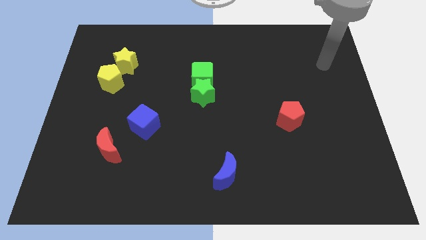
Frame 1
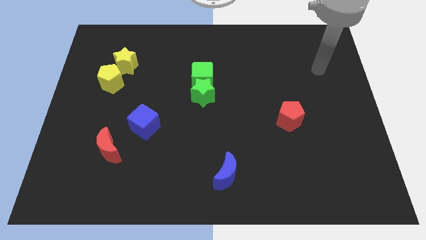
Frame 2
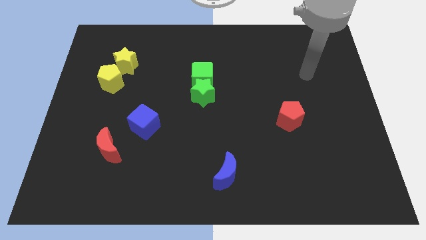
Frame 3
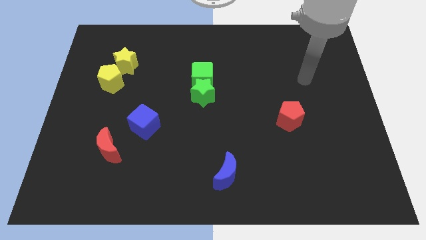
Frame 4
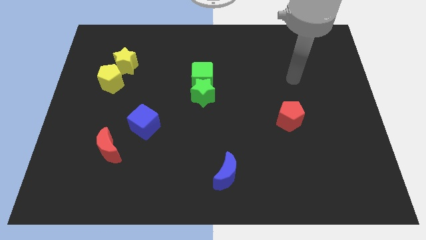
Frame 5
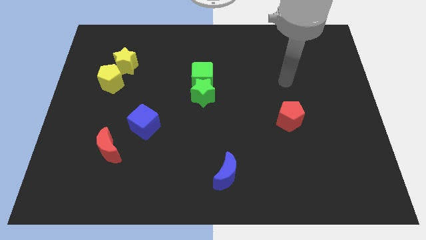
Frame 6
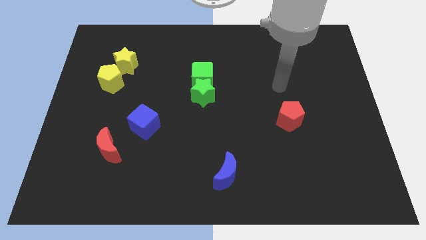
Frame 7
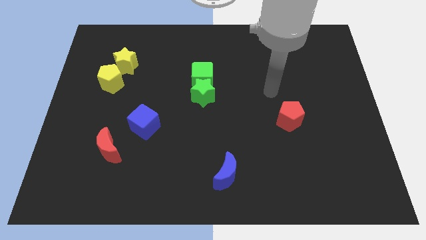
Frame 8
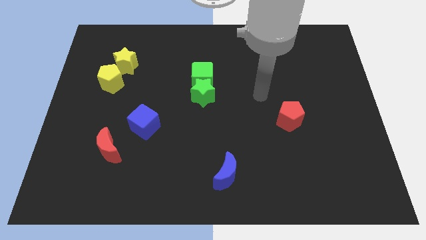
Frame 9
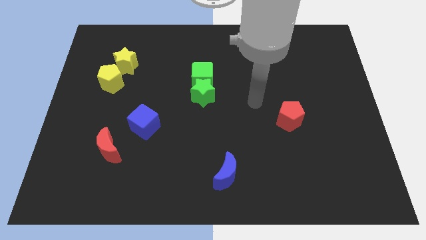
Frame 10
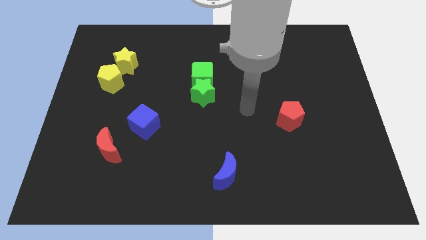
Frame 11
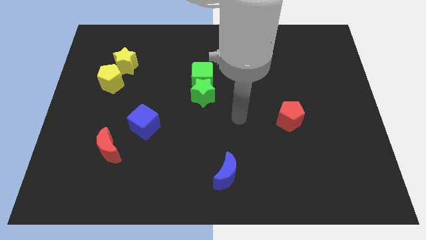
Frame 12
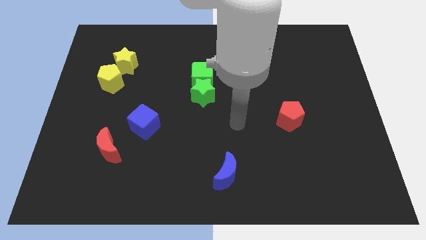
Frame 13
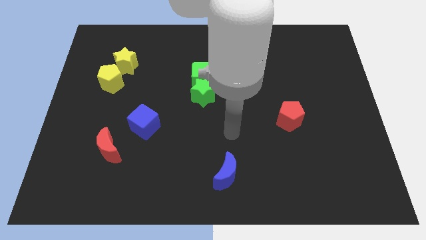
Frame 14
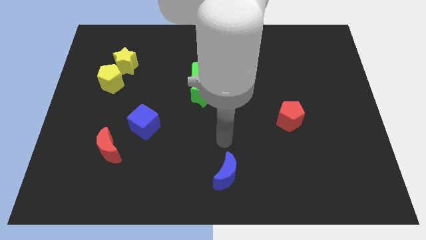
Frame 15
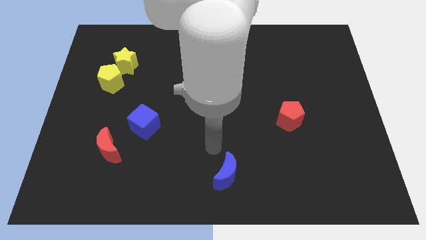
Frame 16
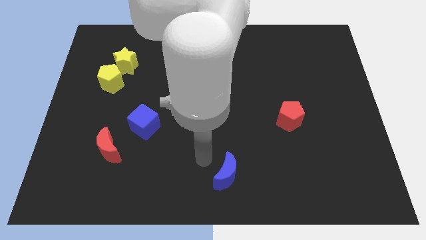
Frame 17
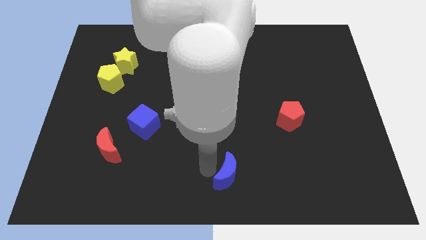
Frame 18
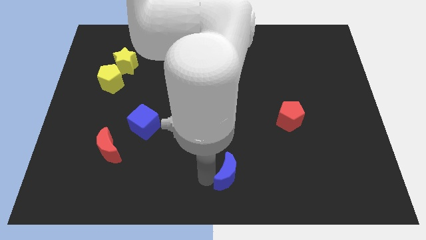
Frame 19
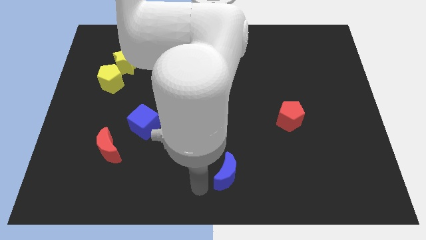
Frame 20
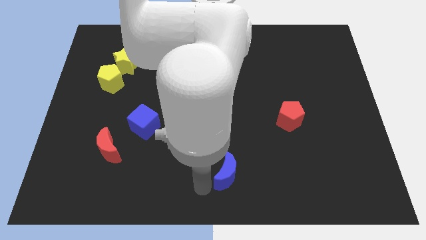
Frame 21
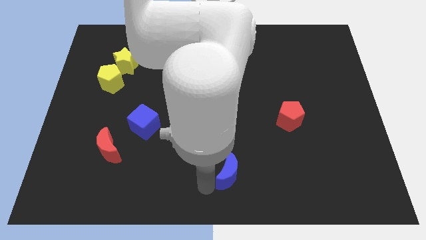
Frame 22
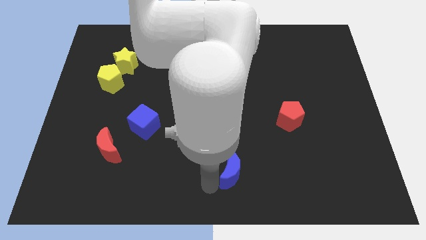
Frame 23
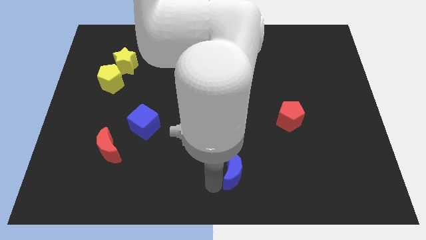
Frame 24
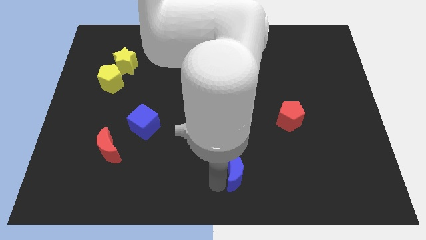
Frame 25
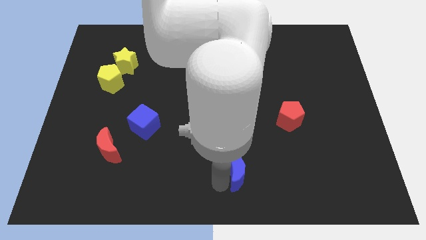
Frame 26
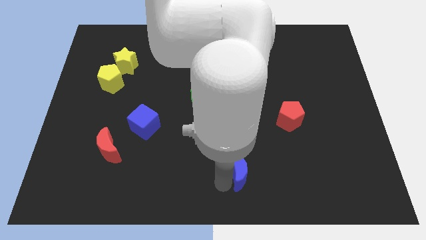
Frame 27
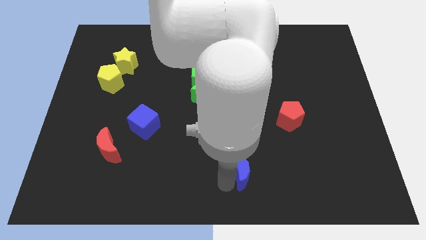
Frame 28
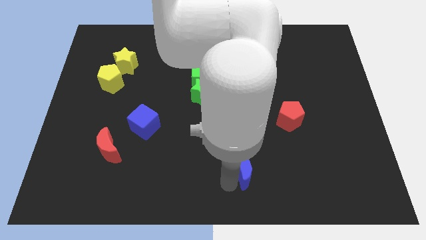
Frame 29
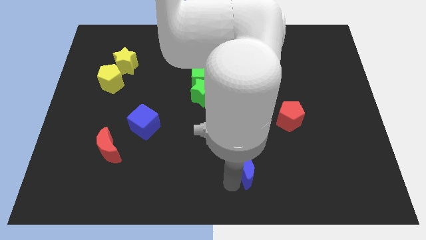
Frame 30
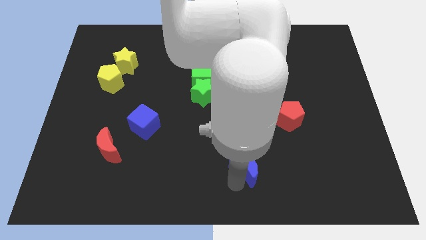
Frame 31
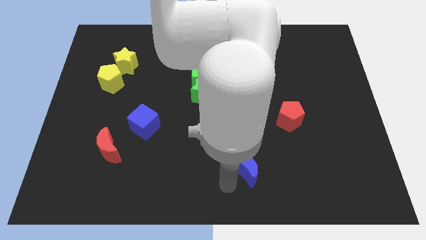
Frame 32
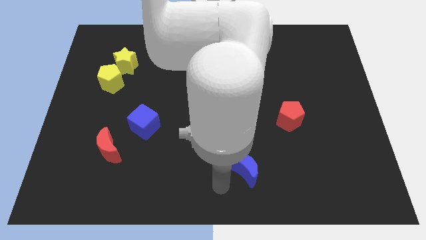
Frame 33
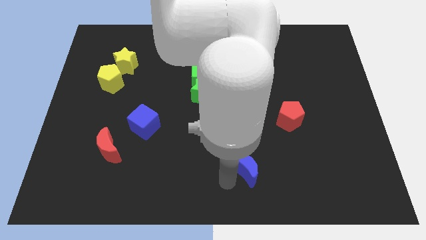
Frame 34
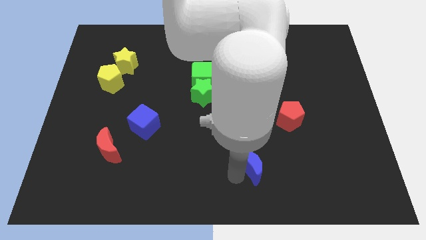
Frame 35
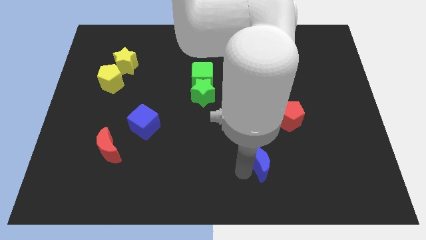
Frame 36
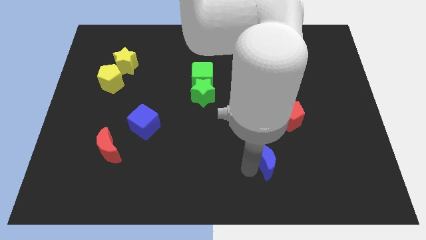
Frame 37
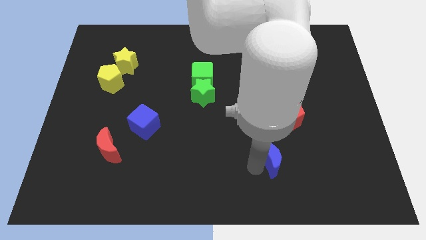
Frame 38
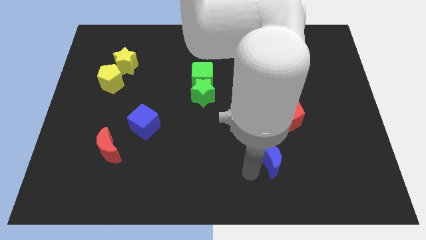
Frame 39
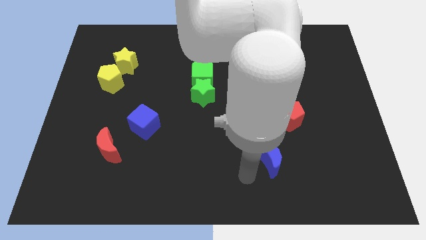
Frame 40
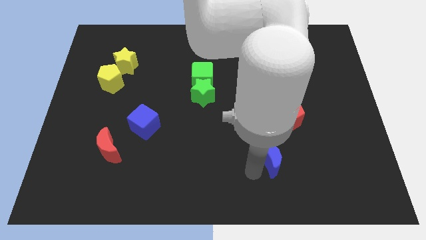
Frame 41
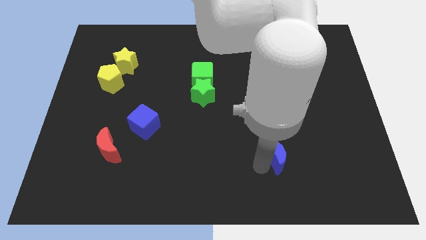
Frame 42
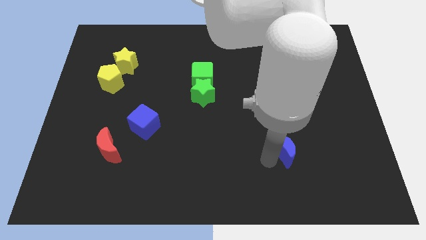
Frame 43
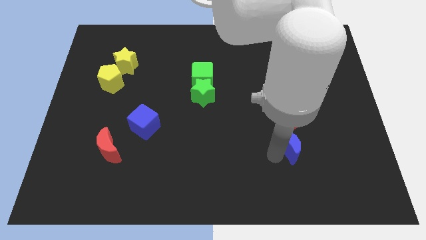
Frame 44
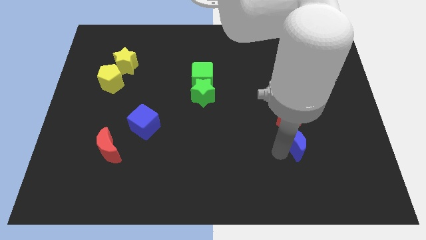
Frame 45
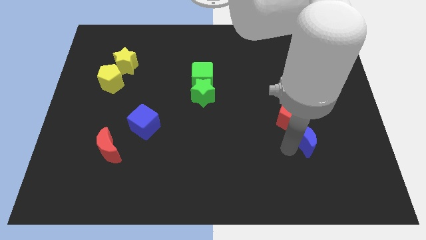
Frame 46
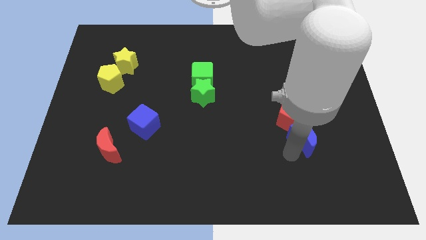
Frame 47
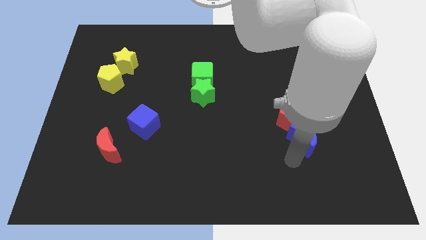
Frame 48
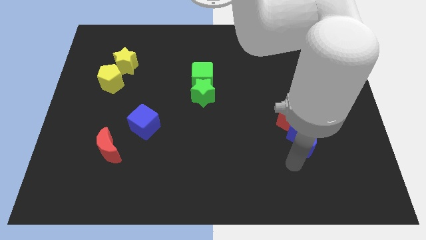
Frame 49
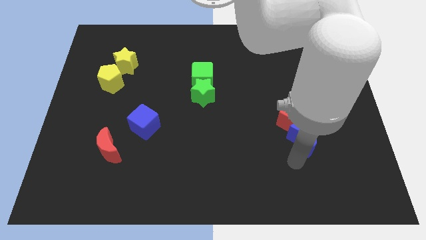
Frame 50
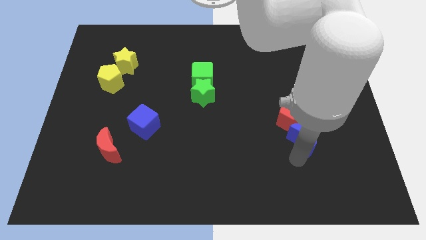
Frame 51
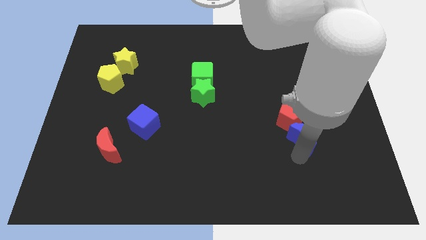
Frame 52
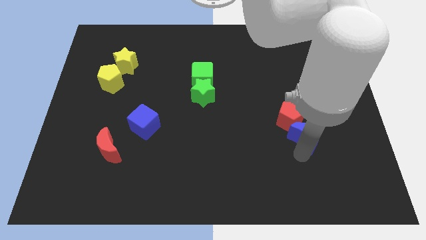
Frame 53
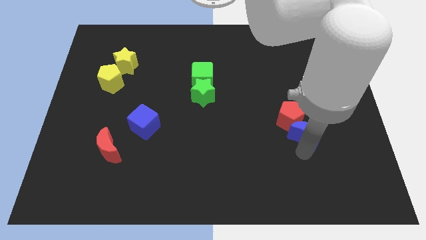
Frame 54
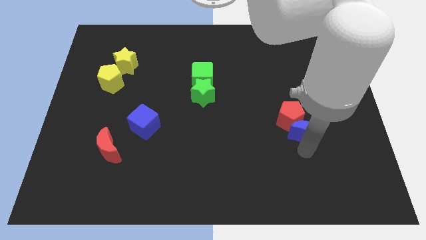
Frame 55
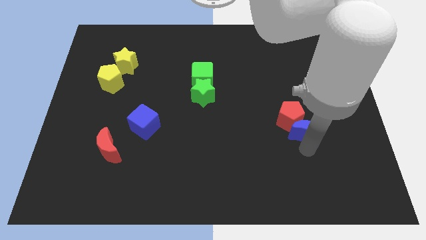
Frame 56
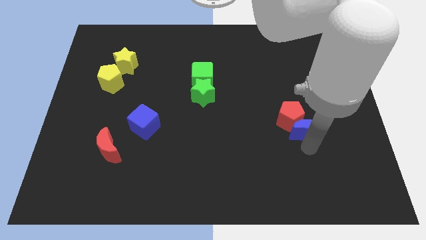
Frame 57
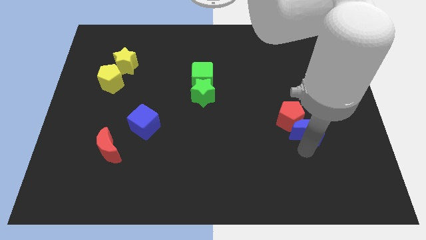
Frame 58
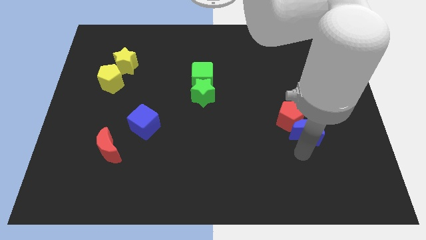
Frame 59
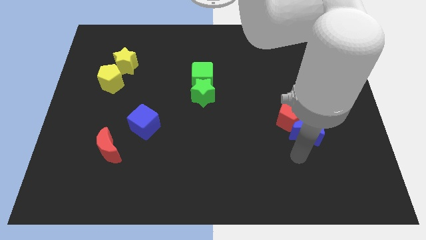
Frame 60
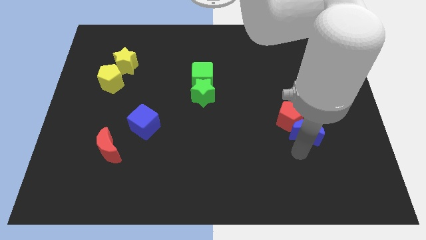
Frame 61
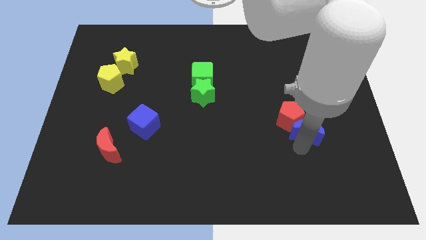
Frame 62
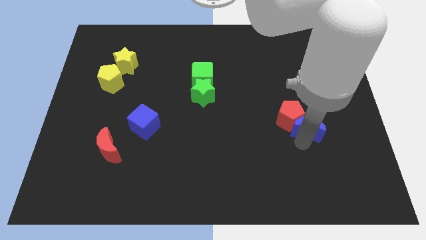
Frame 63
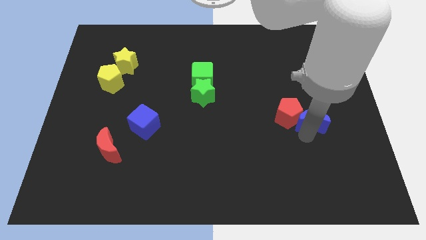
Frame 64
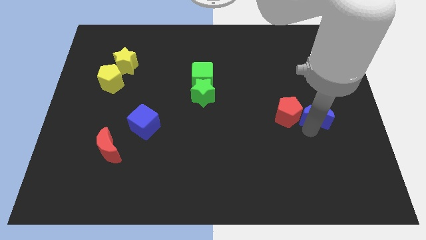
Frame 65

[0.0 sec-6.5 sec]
slide the blue moon to the top right of the red pentagon
